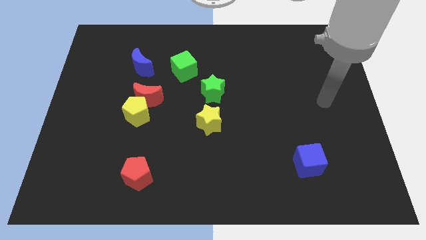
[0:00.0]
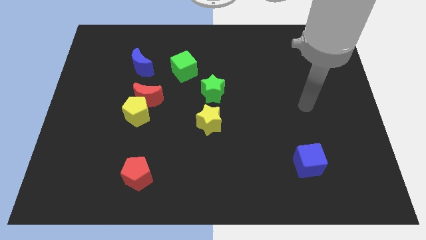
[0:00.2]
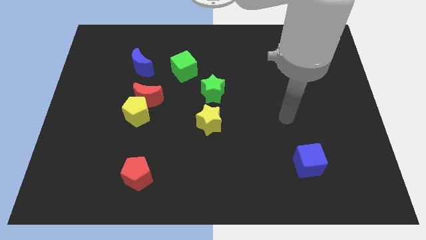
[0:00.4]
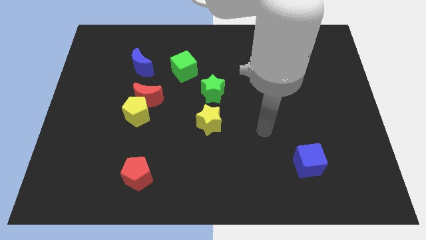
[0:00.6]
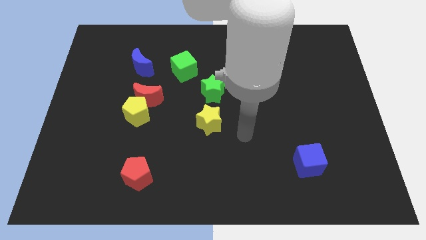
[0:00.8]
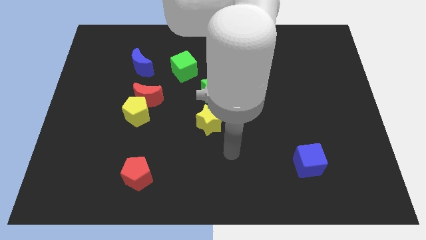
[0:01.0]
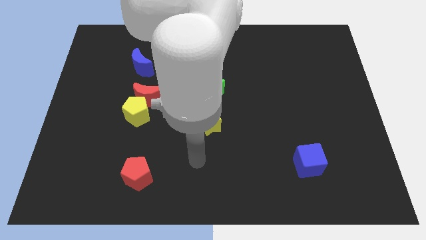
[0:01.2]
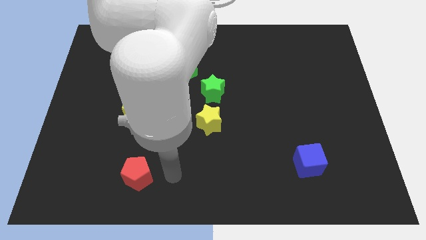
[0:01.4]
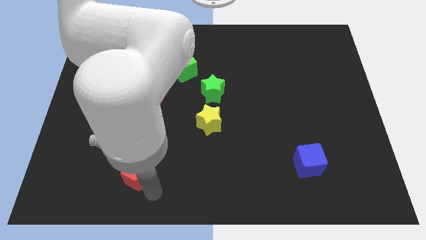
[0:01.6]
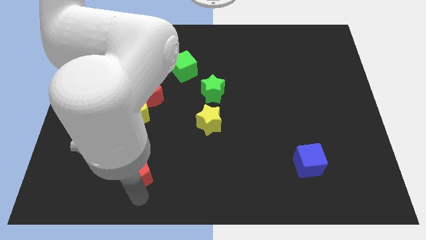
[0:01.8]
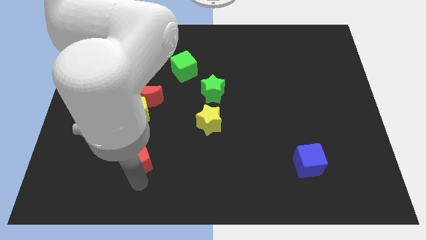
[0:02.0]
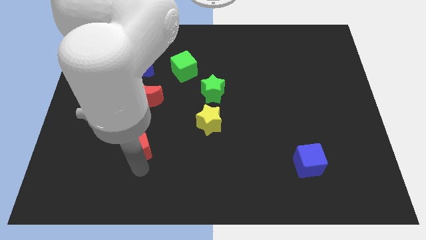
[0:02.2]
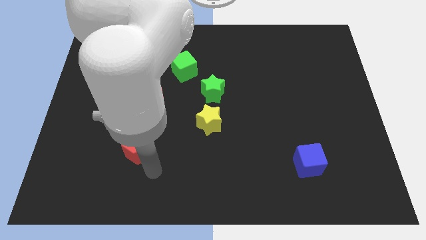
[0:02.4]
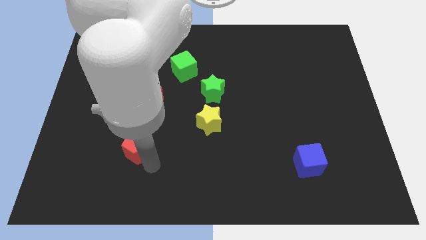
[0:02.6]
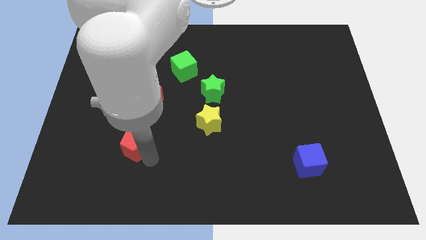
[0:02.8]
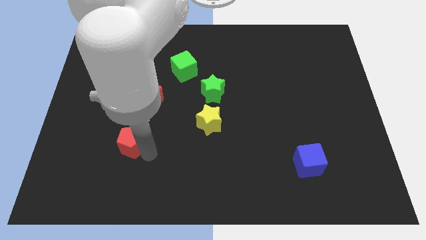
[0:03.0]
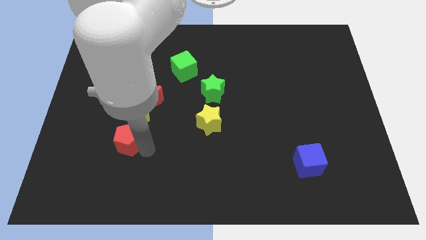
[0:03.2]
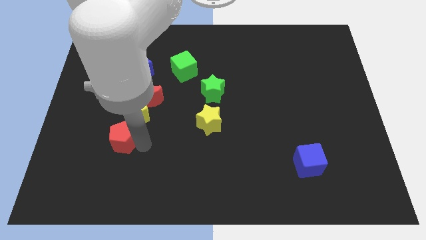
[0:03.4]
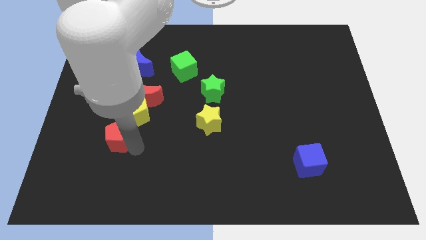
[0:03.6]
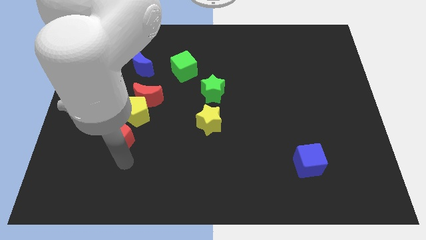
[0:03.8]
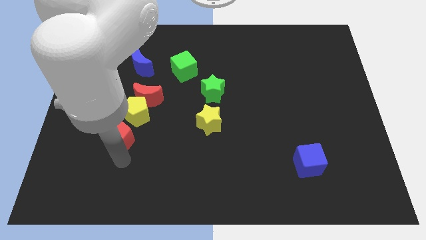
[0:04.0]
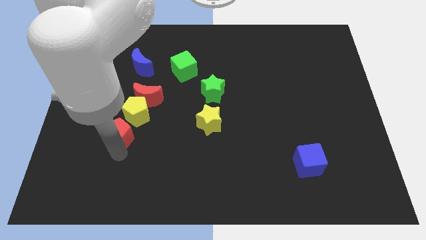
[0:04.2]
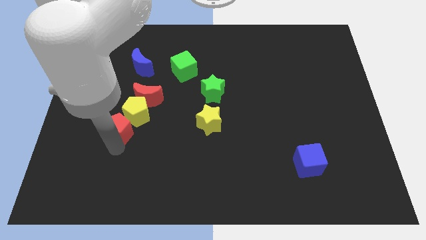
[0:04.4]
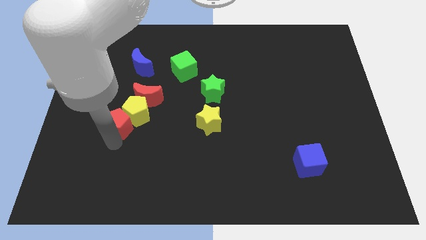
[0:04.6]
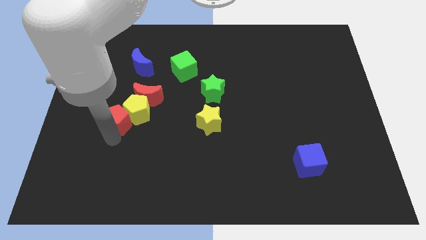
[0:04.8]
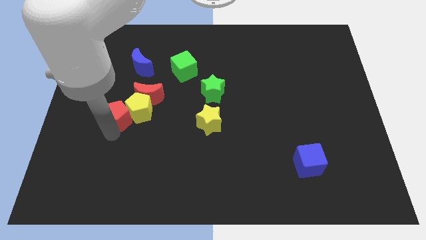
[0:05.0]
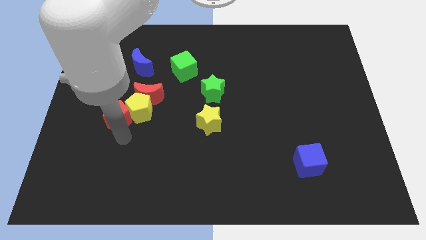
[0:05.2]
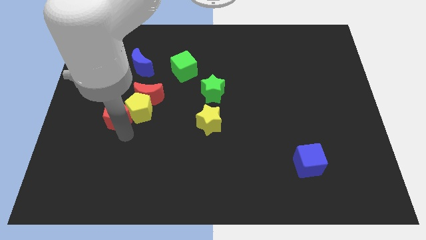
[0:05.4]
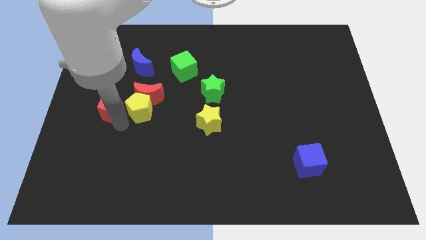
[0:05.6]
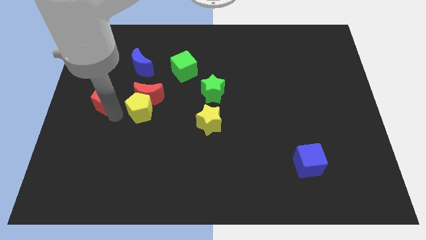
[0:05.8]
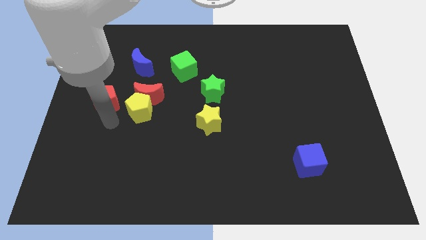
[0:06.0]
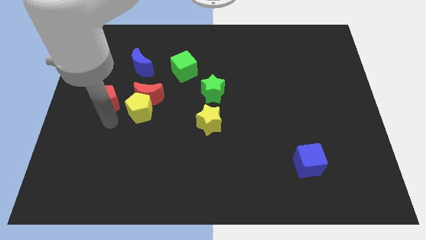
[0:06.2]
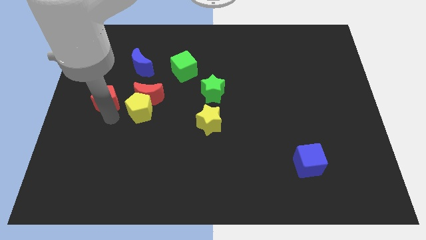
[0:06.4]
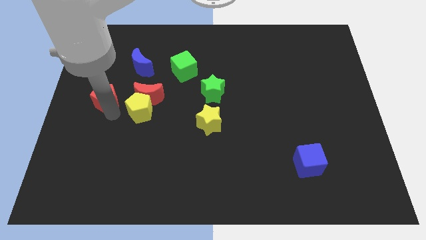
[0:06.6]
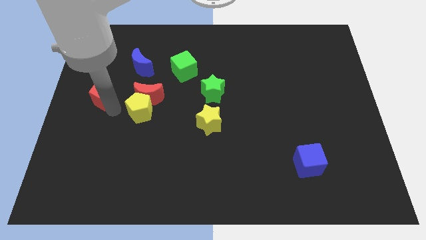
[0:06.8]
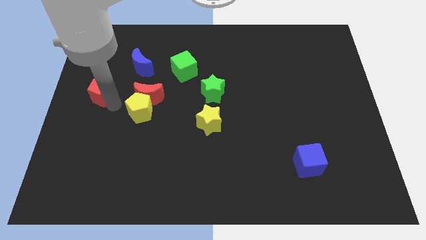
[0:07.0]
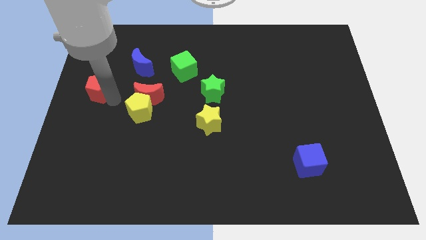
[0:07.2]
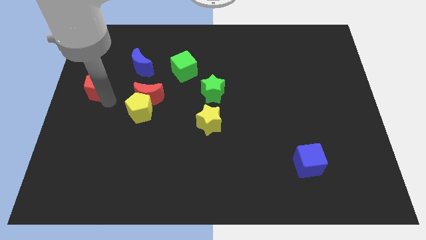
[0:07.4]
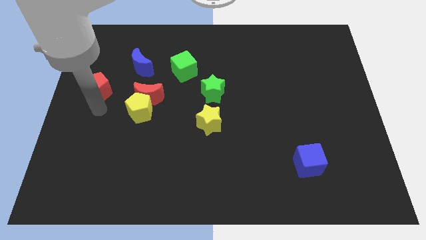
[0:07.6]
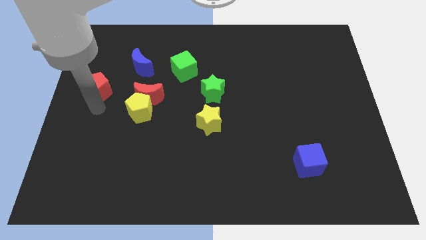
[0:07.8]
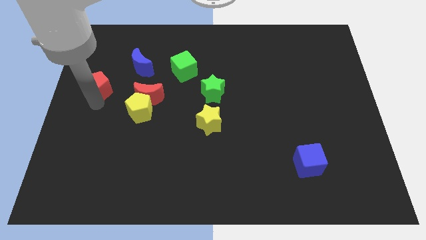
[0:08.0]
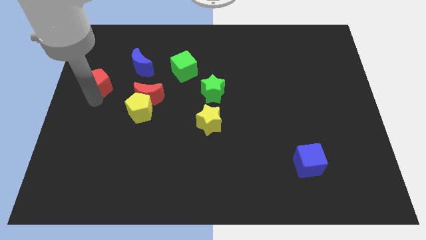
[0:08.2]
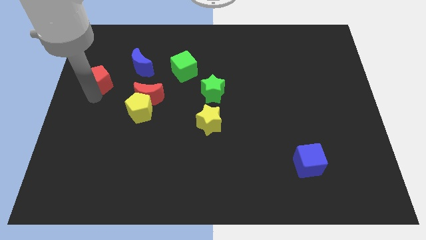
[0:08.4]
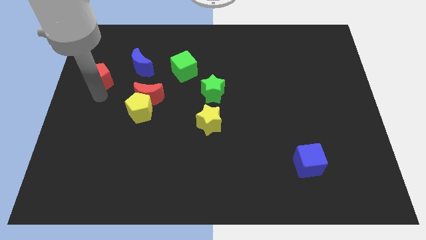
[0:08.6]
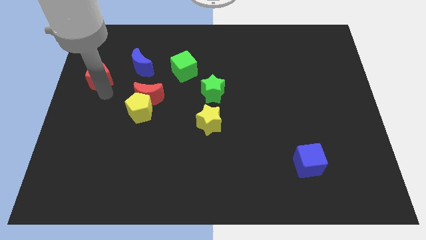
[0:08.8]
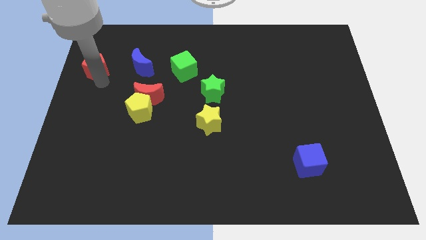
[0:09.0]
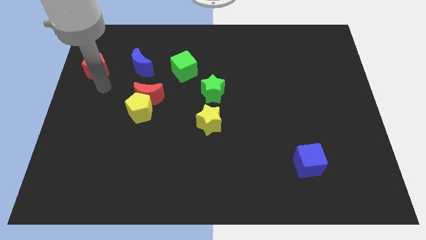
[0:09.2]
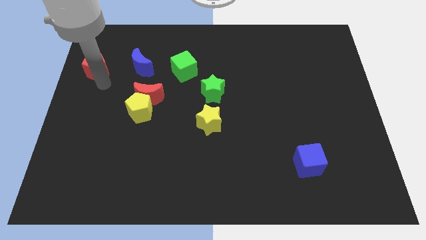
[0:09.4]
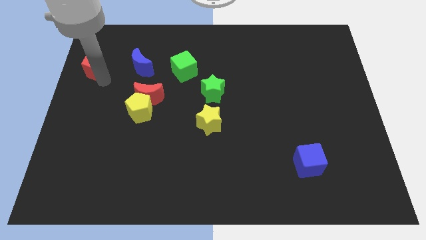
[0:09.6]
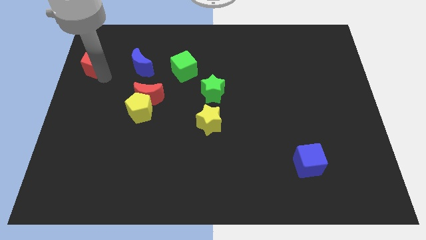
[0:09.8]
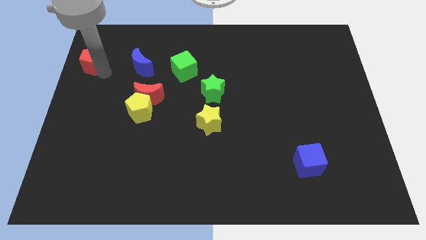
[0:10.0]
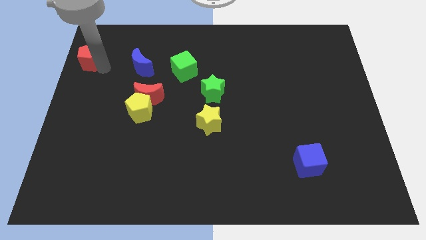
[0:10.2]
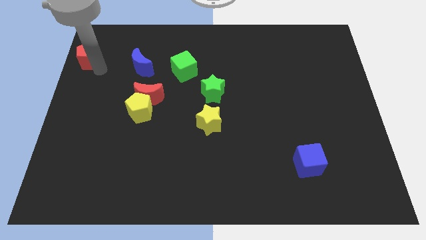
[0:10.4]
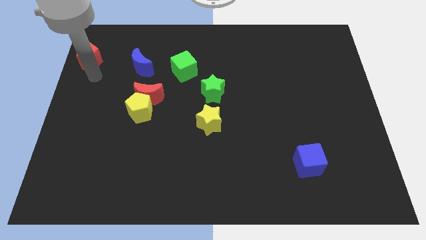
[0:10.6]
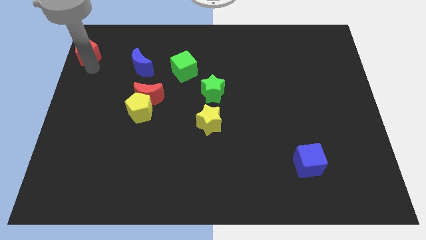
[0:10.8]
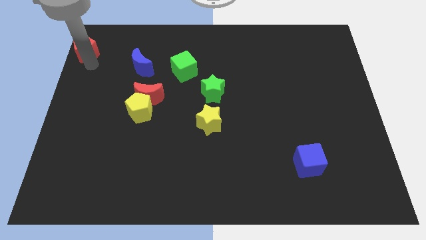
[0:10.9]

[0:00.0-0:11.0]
move the red pentagon to the top left of the board
